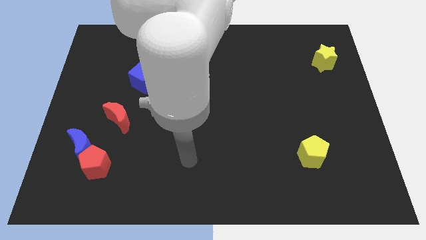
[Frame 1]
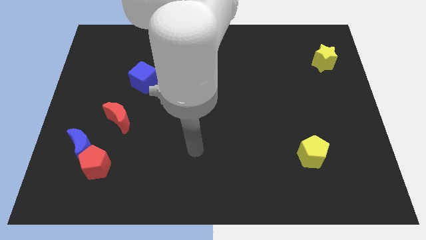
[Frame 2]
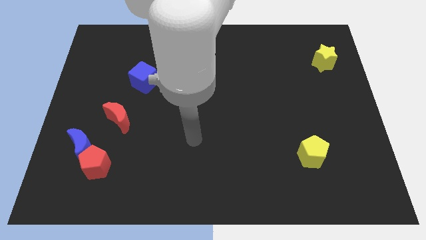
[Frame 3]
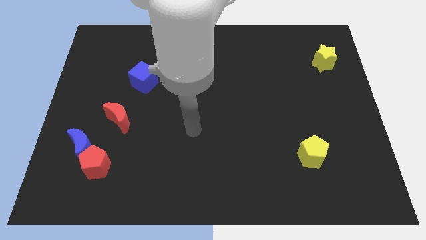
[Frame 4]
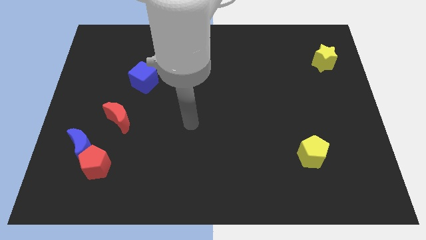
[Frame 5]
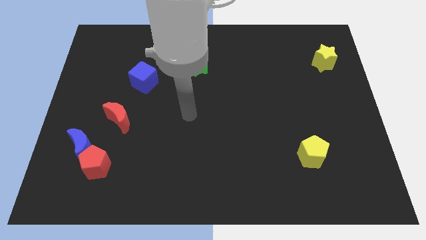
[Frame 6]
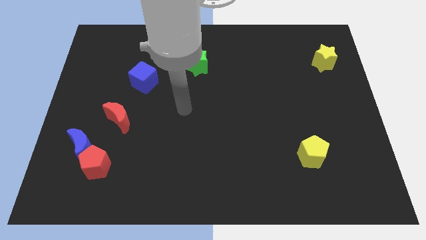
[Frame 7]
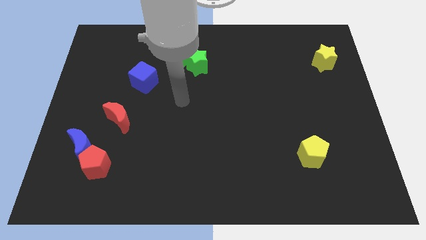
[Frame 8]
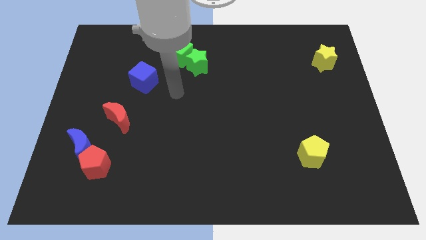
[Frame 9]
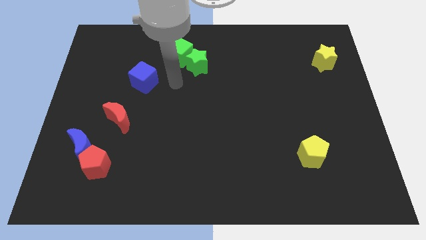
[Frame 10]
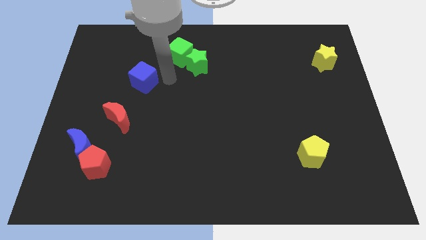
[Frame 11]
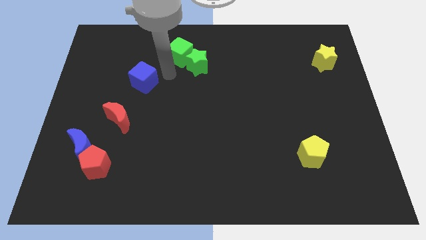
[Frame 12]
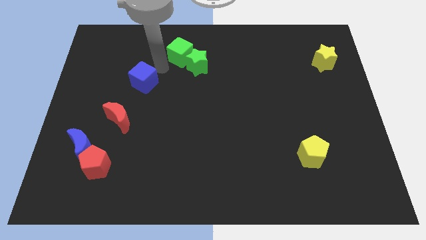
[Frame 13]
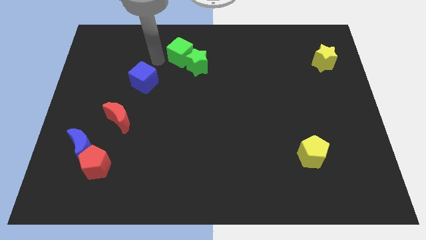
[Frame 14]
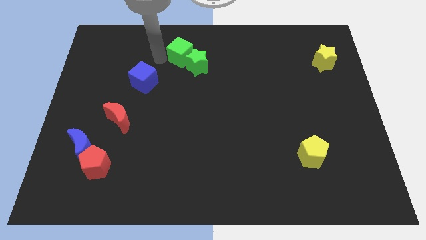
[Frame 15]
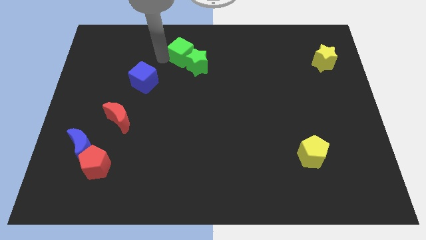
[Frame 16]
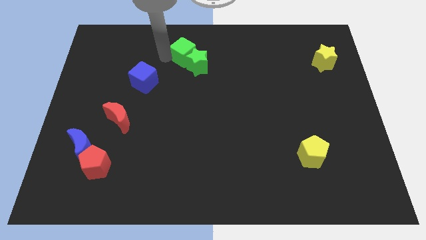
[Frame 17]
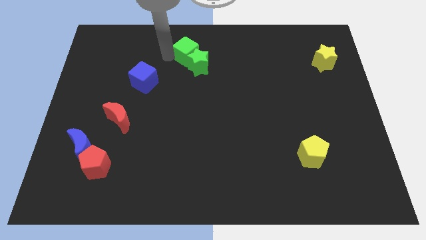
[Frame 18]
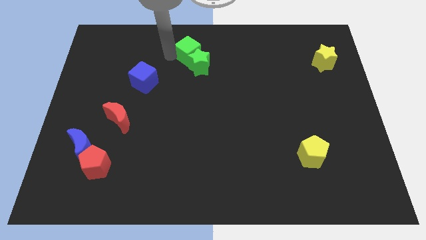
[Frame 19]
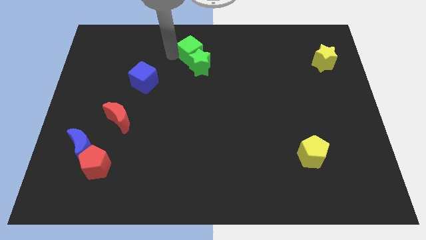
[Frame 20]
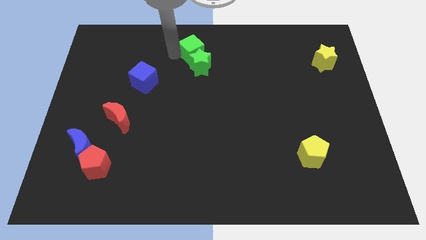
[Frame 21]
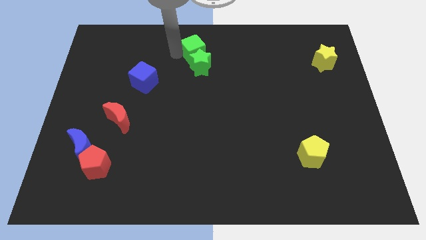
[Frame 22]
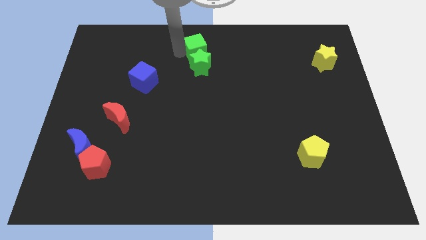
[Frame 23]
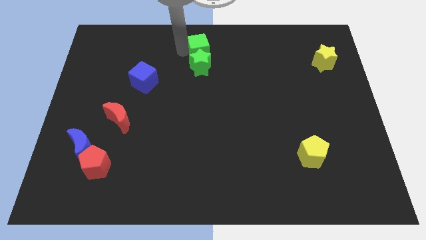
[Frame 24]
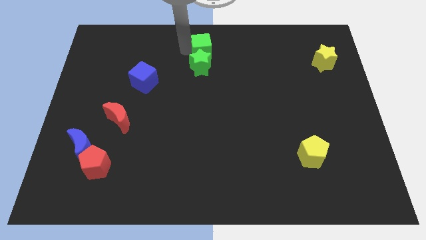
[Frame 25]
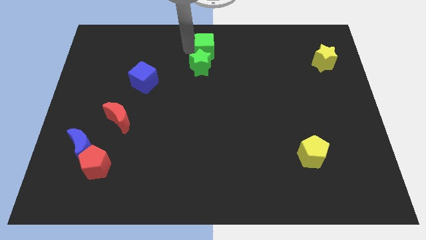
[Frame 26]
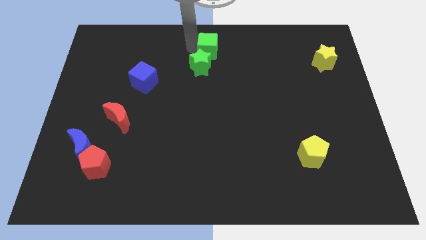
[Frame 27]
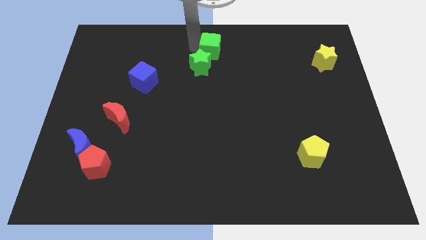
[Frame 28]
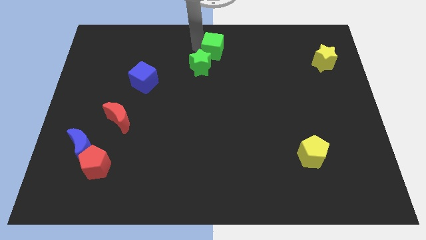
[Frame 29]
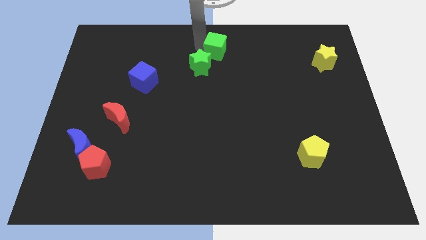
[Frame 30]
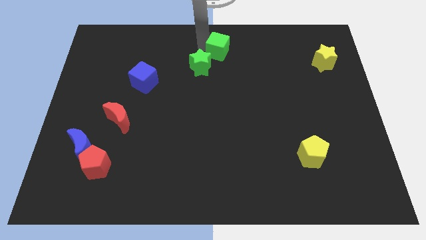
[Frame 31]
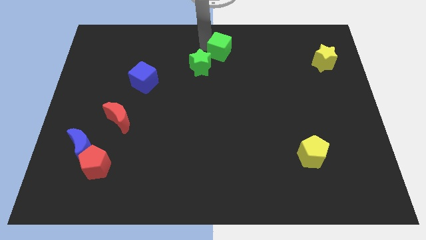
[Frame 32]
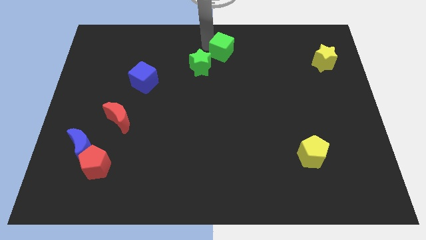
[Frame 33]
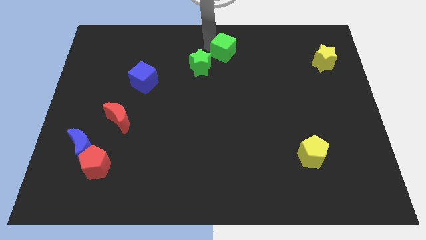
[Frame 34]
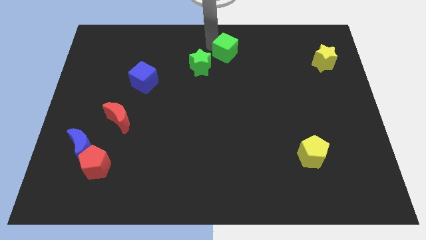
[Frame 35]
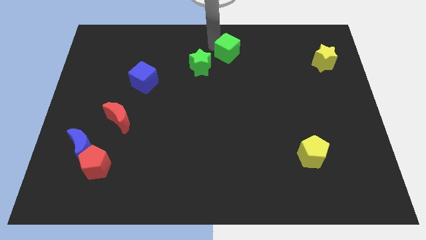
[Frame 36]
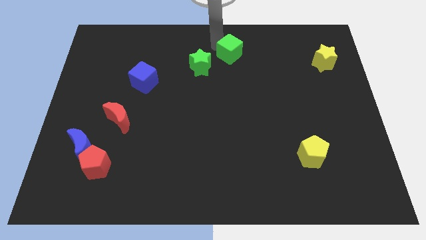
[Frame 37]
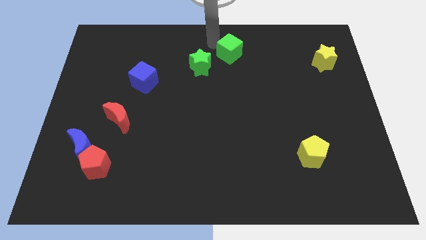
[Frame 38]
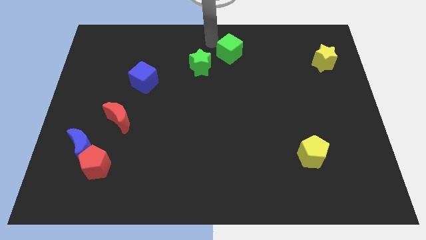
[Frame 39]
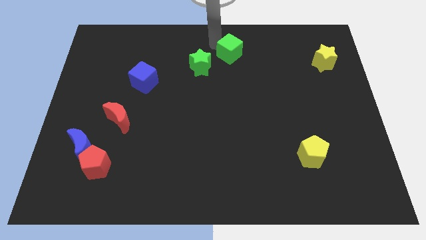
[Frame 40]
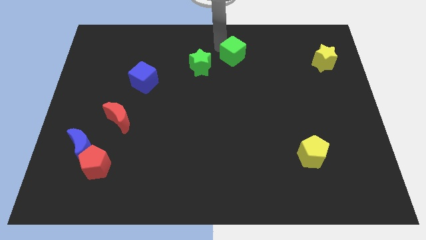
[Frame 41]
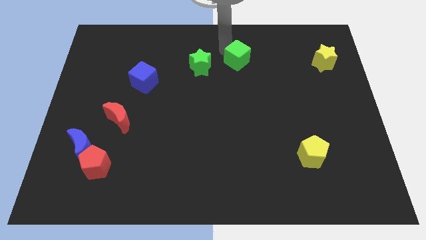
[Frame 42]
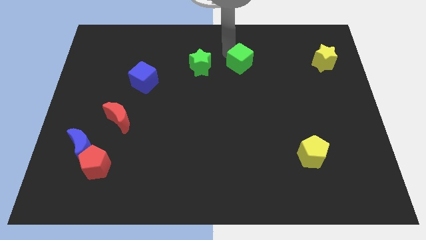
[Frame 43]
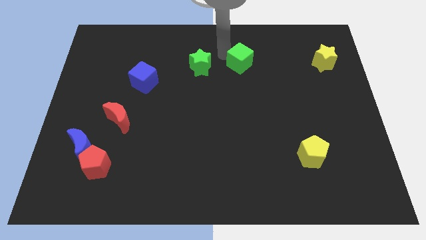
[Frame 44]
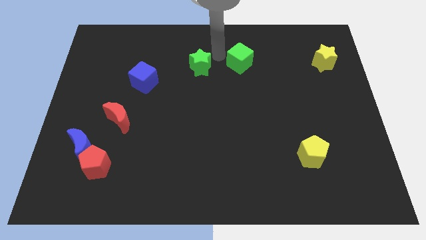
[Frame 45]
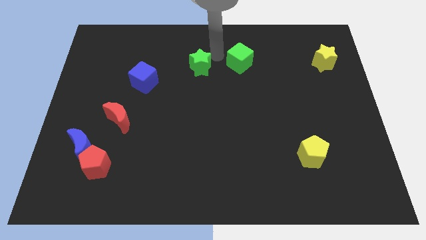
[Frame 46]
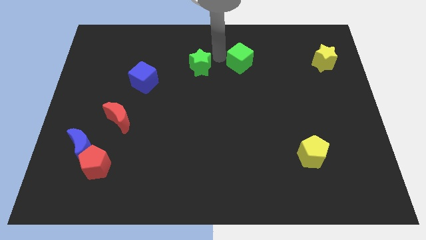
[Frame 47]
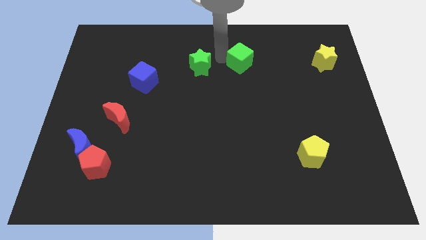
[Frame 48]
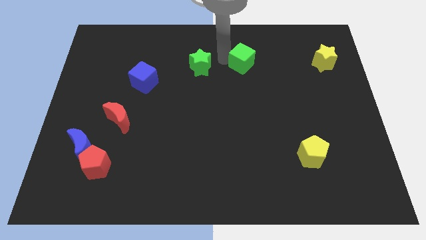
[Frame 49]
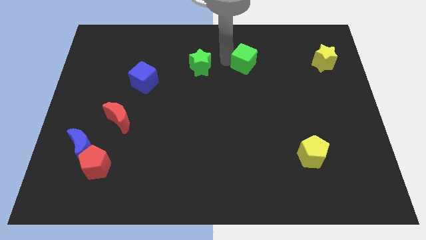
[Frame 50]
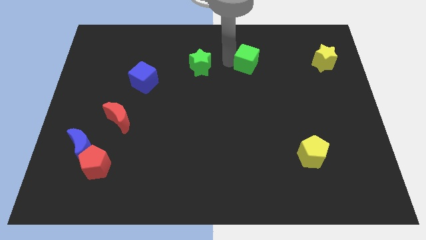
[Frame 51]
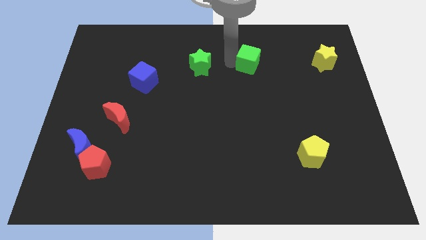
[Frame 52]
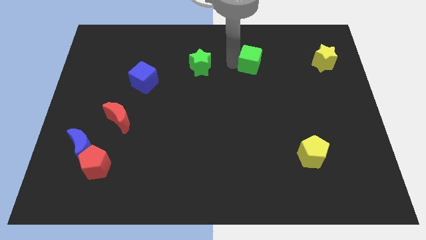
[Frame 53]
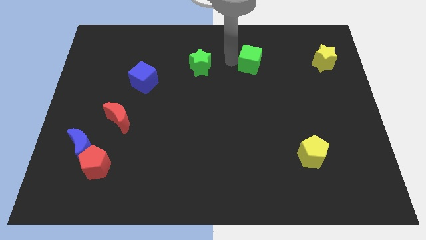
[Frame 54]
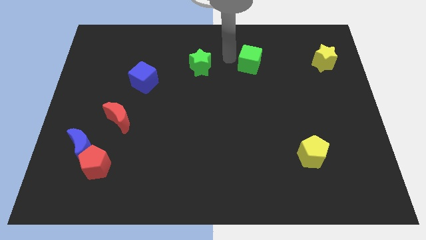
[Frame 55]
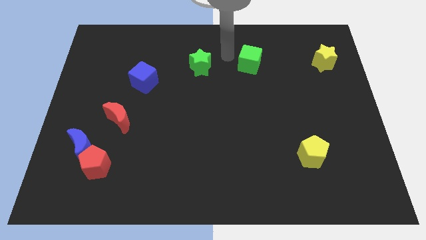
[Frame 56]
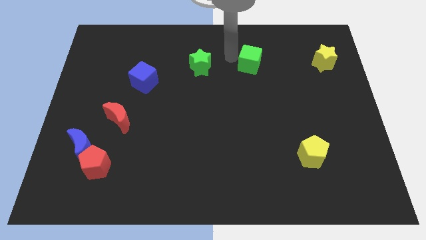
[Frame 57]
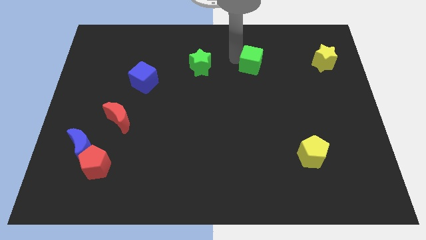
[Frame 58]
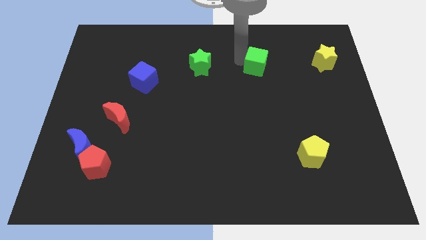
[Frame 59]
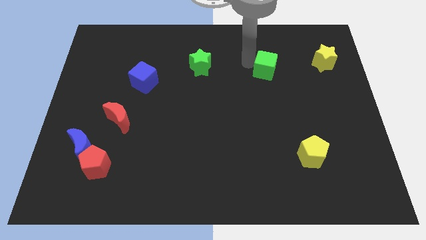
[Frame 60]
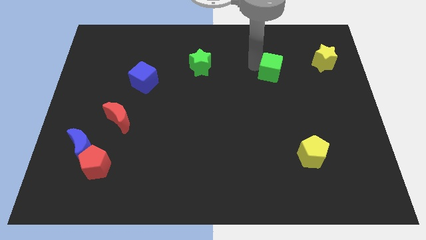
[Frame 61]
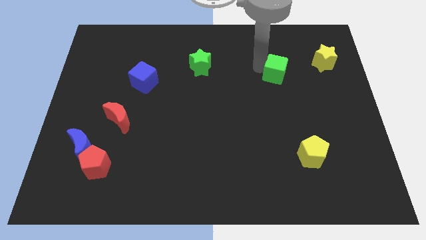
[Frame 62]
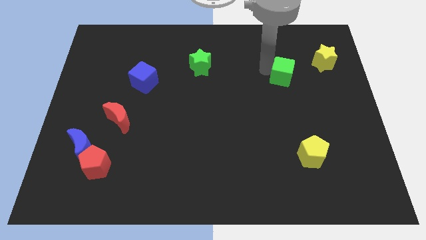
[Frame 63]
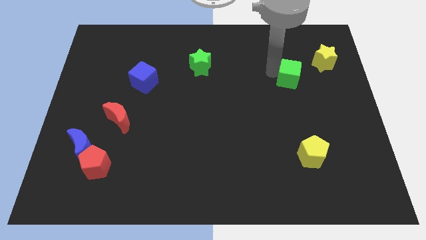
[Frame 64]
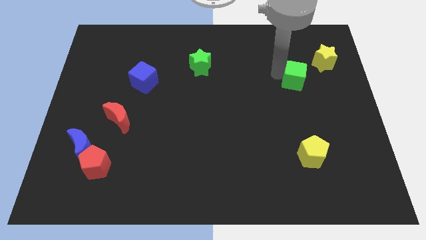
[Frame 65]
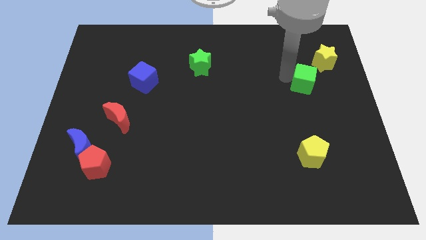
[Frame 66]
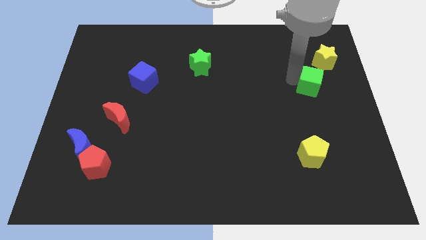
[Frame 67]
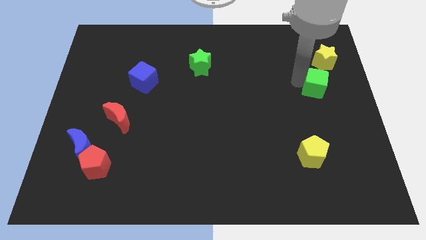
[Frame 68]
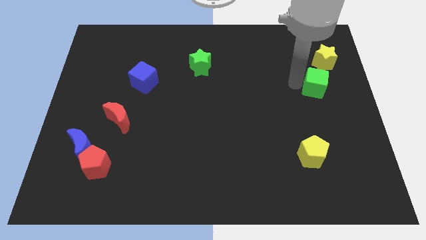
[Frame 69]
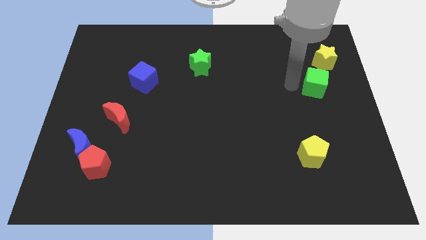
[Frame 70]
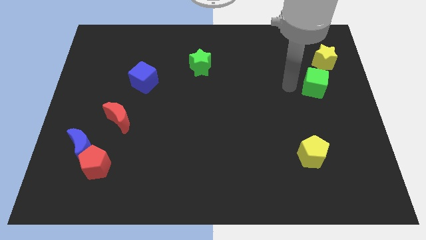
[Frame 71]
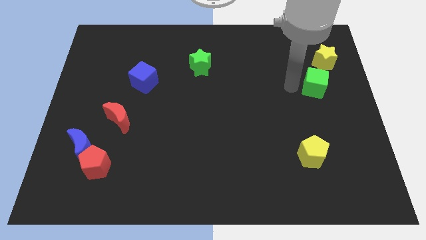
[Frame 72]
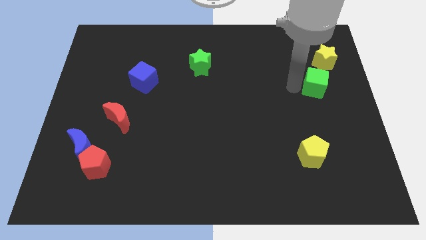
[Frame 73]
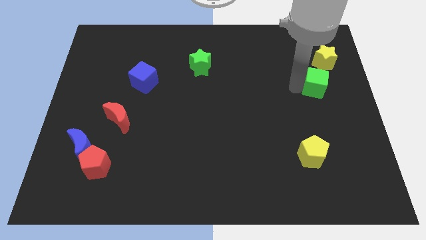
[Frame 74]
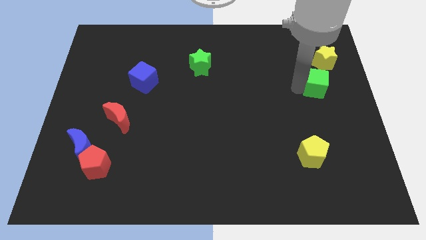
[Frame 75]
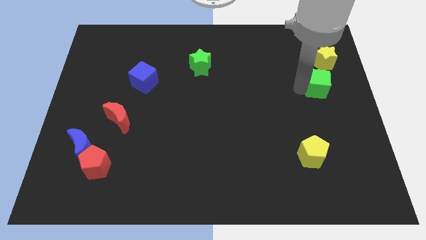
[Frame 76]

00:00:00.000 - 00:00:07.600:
slide the green cube to the right side of the board
